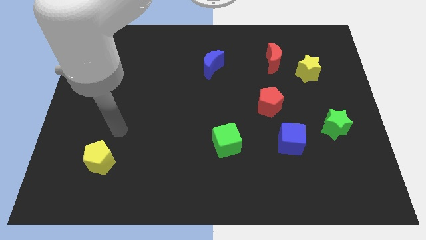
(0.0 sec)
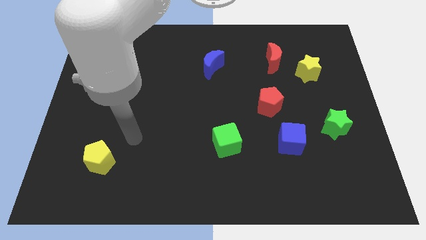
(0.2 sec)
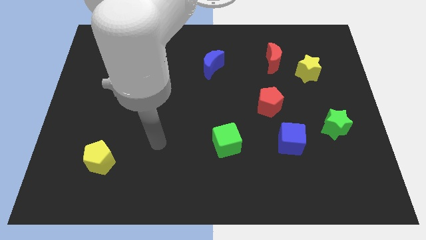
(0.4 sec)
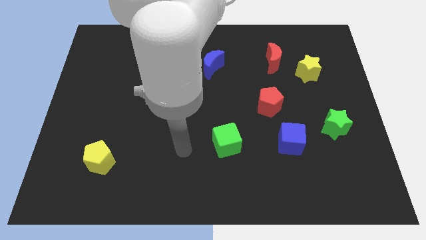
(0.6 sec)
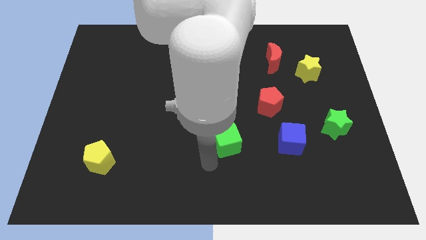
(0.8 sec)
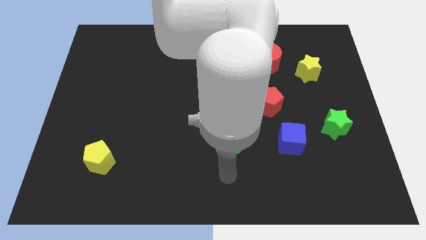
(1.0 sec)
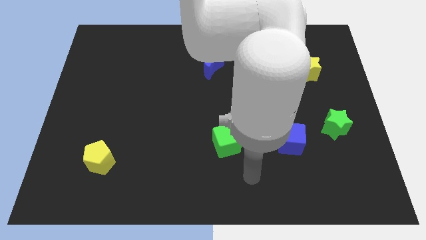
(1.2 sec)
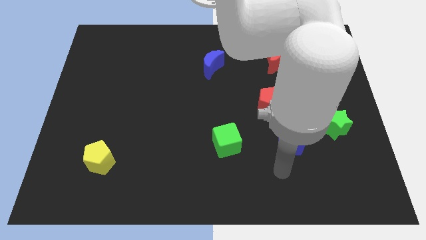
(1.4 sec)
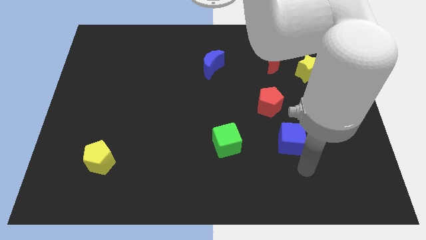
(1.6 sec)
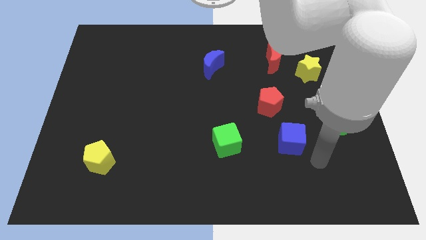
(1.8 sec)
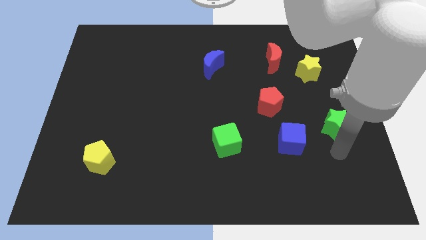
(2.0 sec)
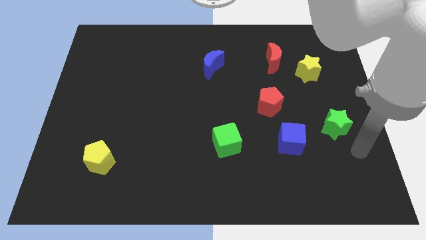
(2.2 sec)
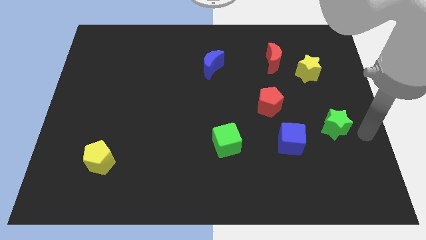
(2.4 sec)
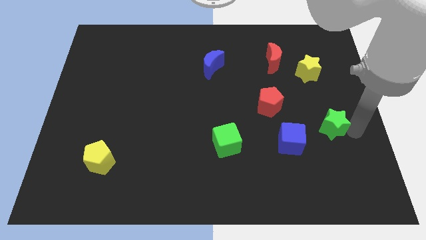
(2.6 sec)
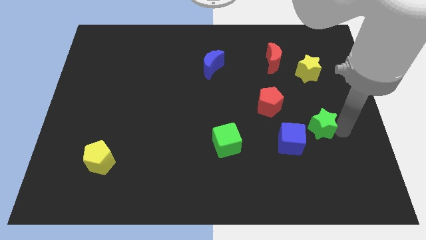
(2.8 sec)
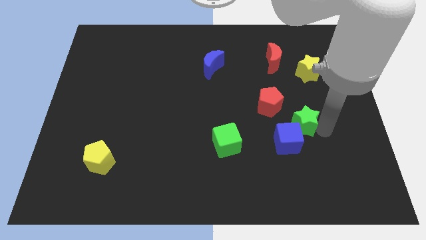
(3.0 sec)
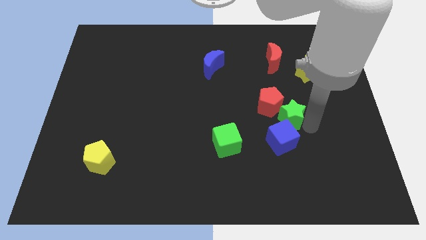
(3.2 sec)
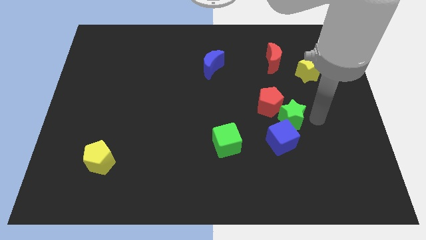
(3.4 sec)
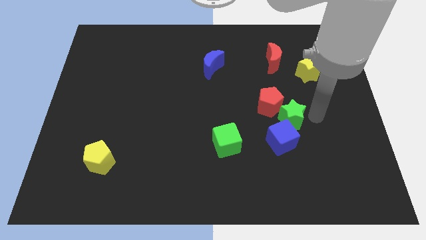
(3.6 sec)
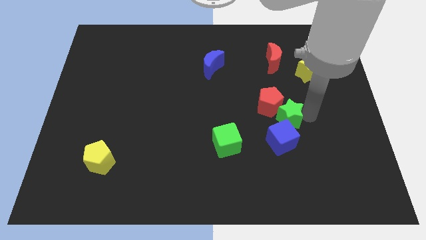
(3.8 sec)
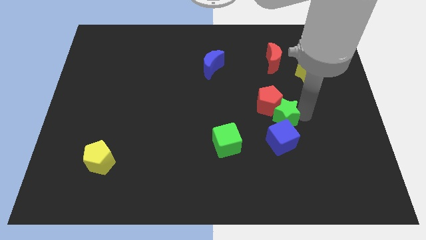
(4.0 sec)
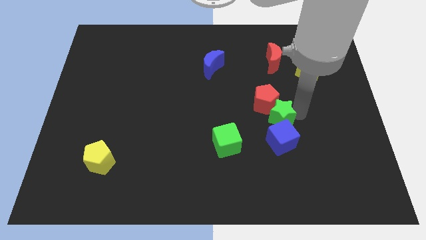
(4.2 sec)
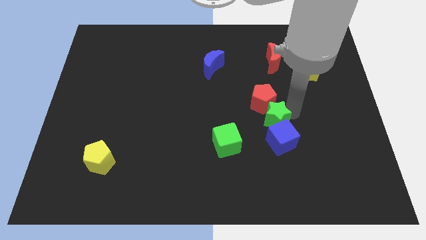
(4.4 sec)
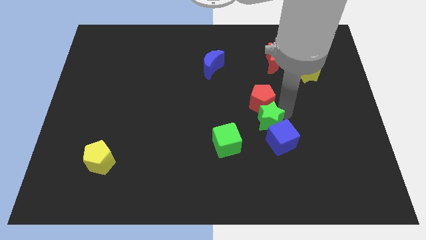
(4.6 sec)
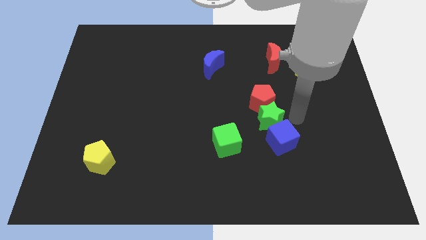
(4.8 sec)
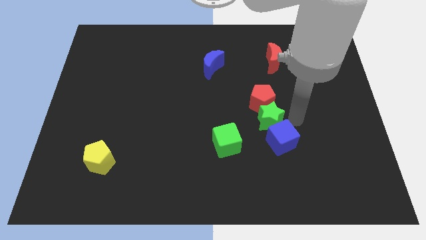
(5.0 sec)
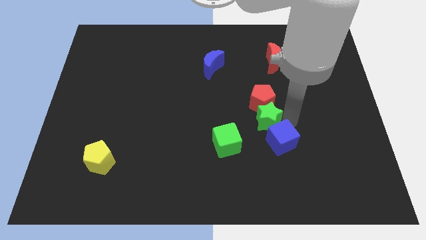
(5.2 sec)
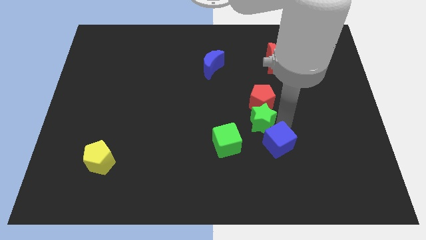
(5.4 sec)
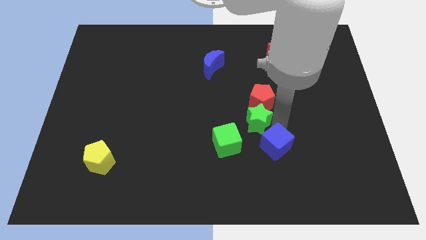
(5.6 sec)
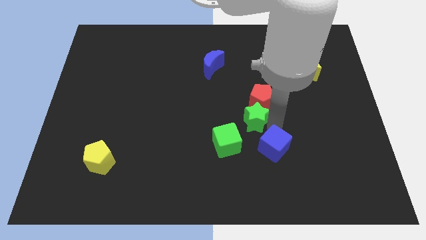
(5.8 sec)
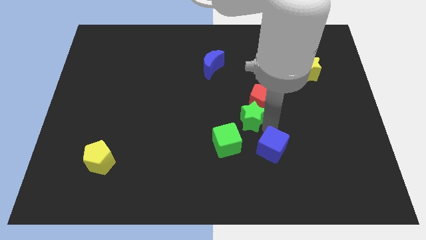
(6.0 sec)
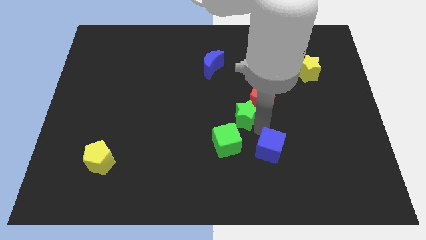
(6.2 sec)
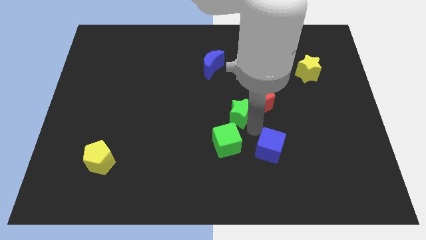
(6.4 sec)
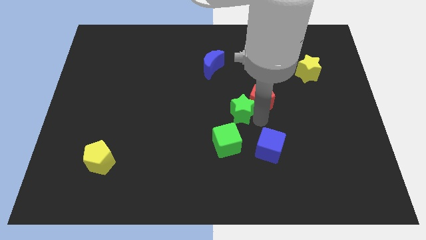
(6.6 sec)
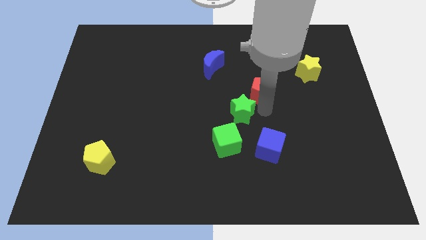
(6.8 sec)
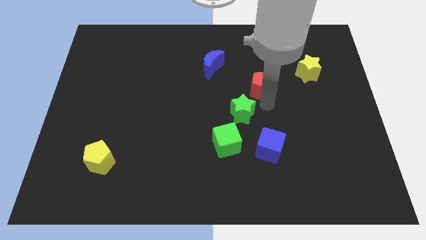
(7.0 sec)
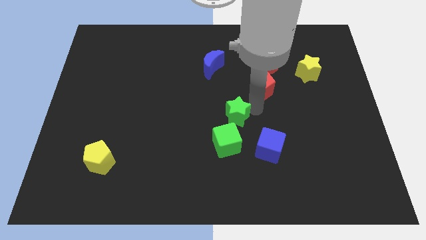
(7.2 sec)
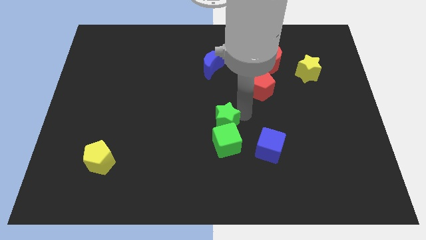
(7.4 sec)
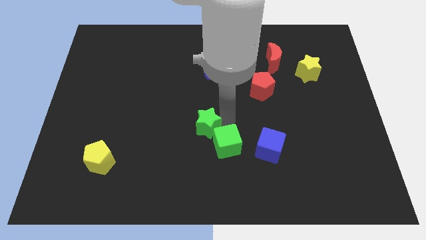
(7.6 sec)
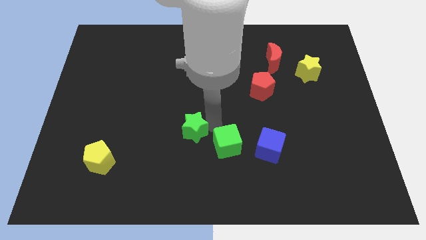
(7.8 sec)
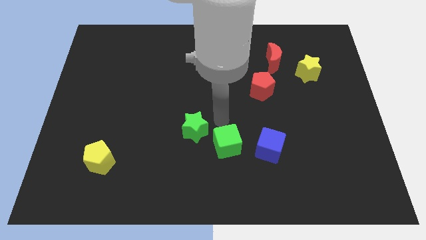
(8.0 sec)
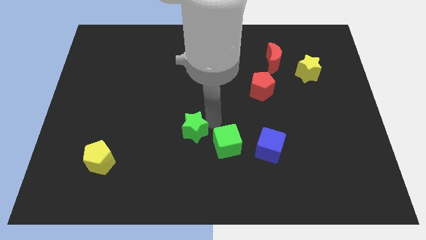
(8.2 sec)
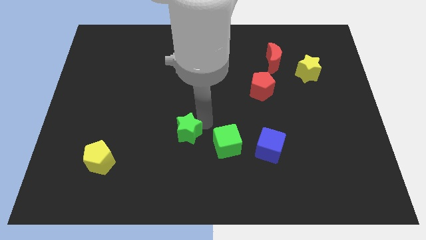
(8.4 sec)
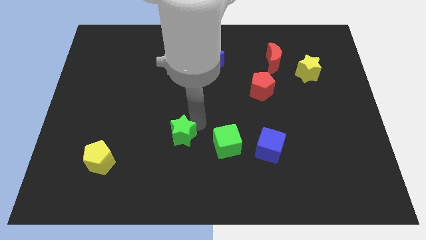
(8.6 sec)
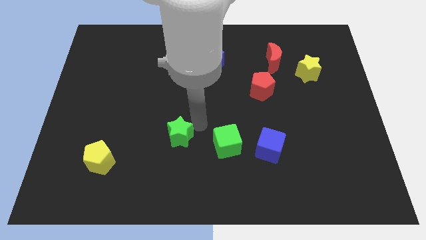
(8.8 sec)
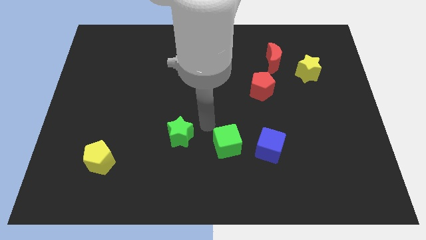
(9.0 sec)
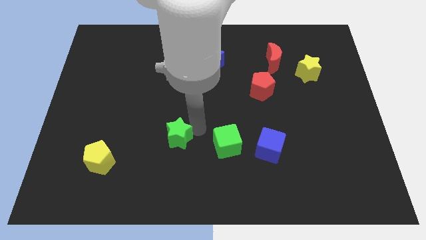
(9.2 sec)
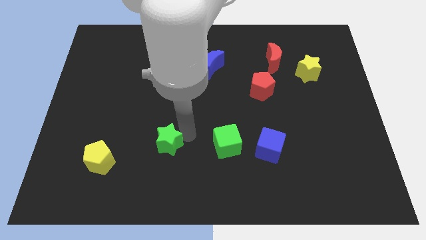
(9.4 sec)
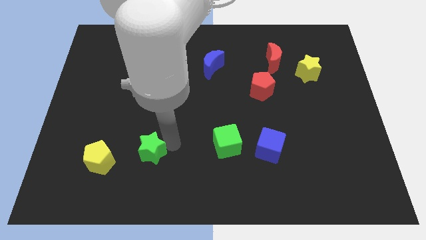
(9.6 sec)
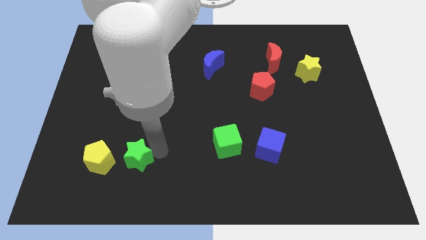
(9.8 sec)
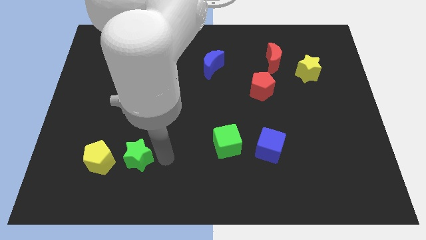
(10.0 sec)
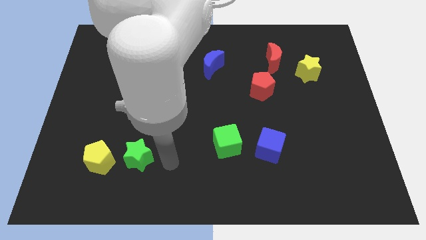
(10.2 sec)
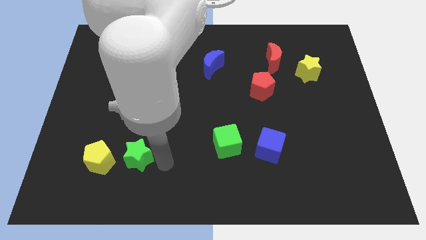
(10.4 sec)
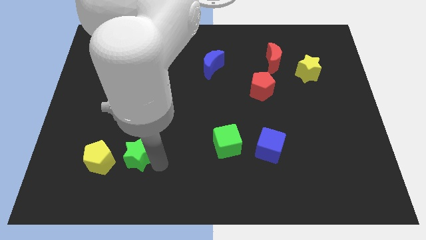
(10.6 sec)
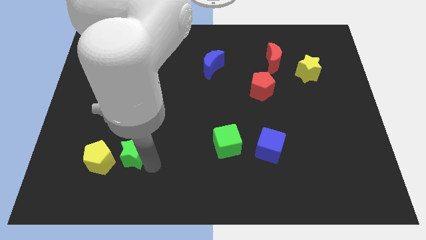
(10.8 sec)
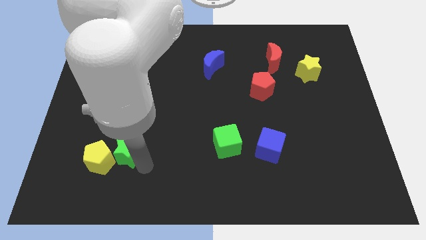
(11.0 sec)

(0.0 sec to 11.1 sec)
move the green star close to the yellow pentagon
